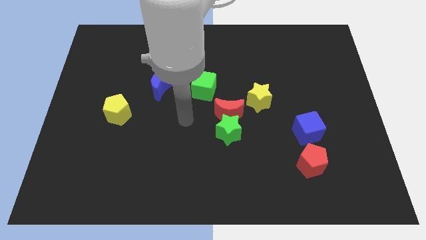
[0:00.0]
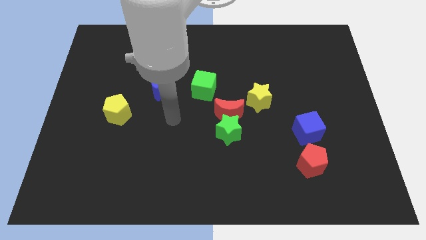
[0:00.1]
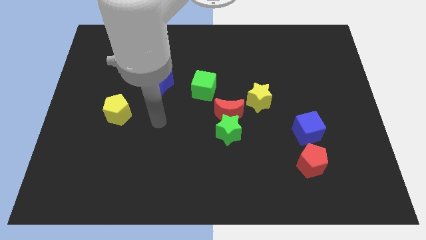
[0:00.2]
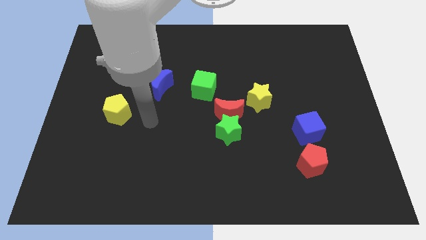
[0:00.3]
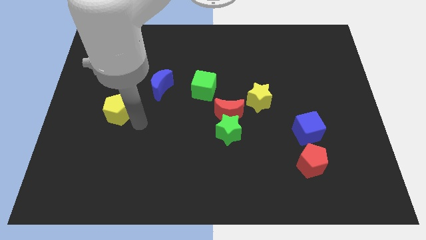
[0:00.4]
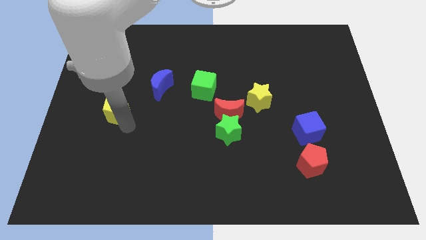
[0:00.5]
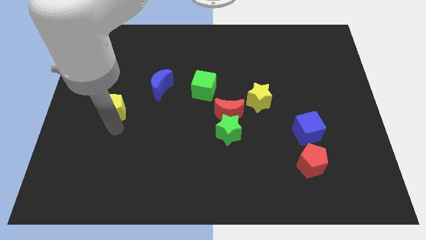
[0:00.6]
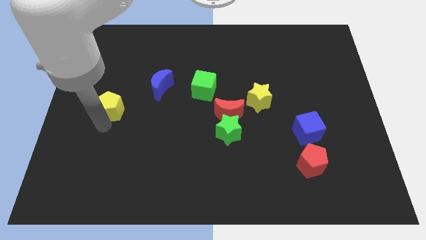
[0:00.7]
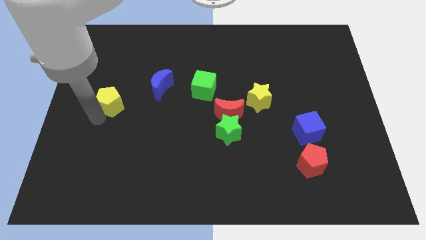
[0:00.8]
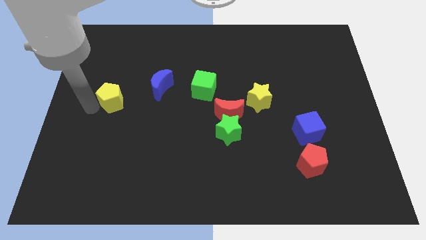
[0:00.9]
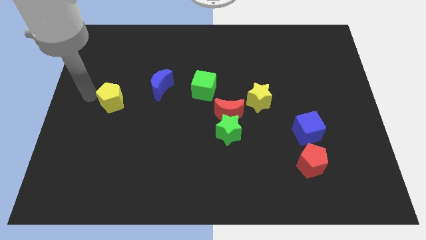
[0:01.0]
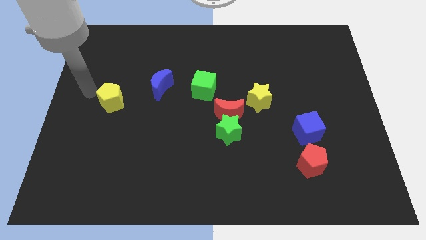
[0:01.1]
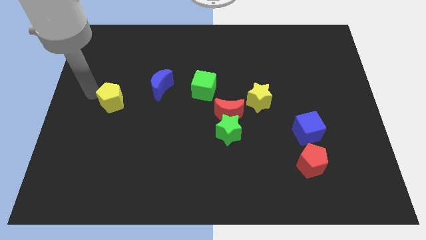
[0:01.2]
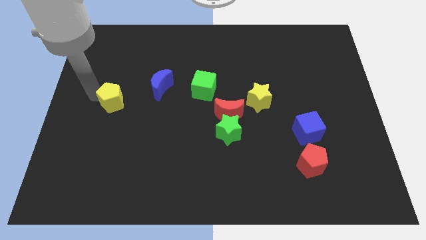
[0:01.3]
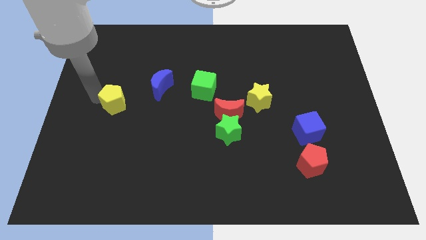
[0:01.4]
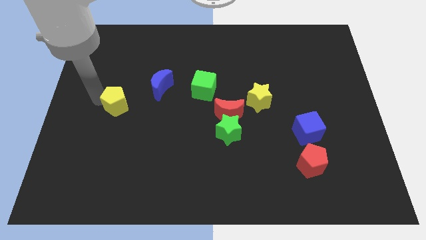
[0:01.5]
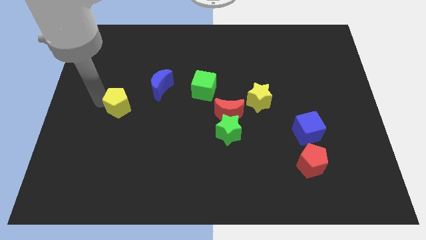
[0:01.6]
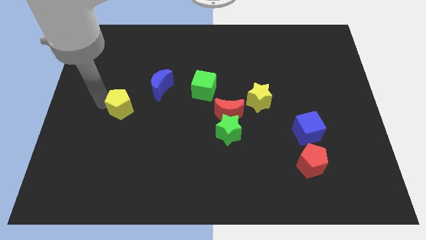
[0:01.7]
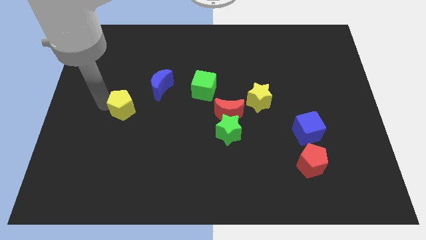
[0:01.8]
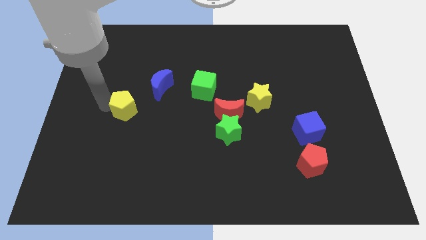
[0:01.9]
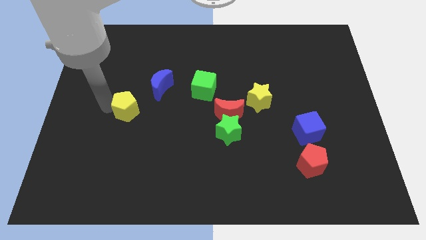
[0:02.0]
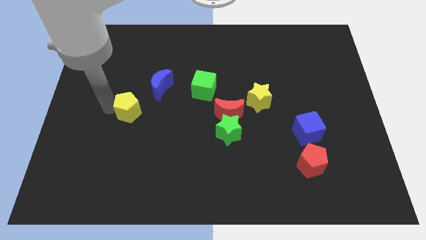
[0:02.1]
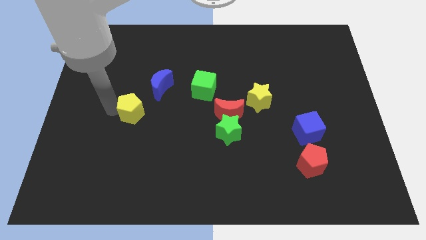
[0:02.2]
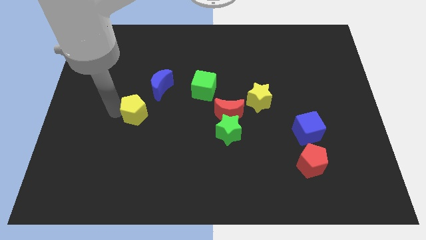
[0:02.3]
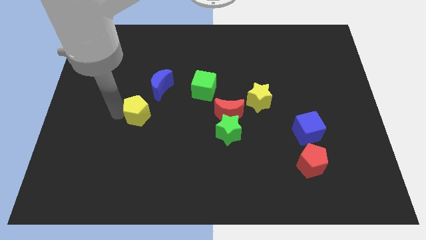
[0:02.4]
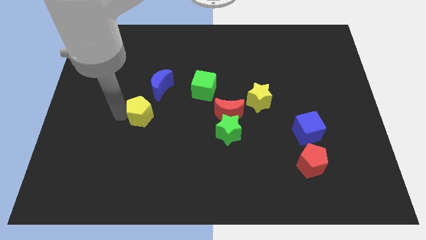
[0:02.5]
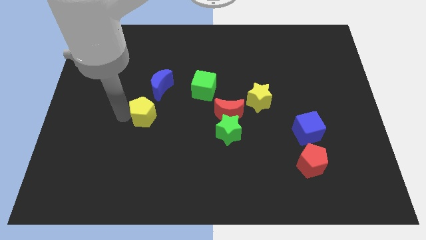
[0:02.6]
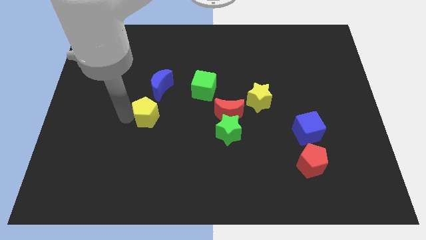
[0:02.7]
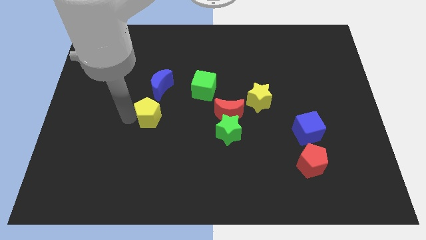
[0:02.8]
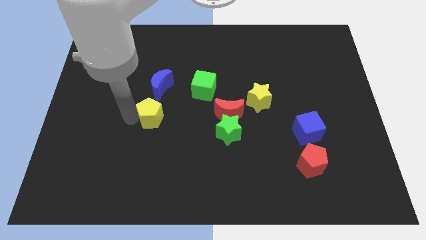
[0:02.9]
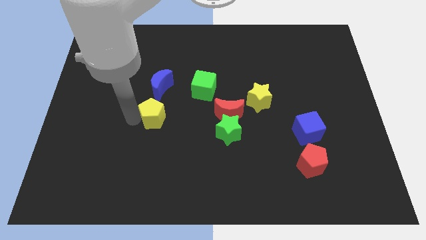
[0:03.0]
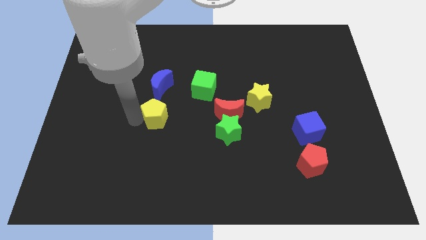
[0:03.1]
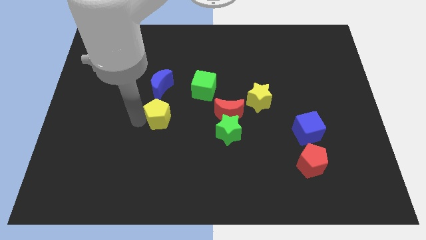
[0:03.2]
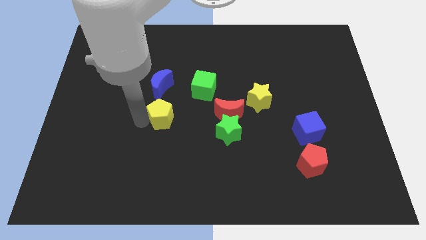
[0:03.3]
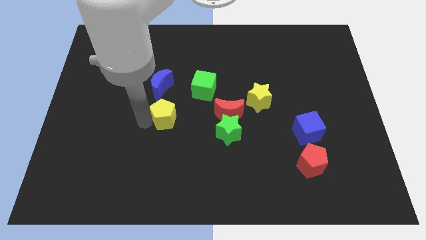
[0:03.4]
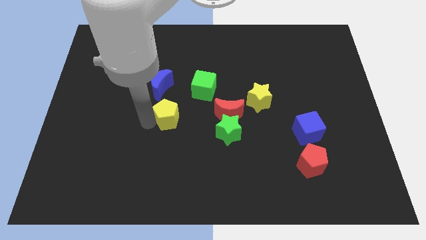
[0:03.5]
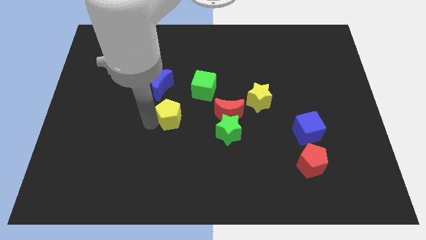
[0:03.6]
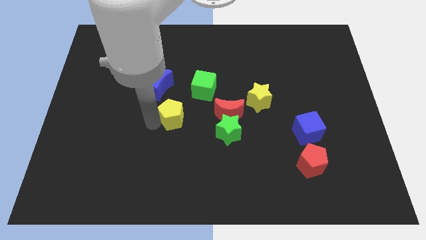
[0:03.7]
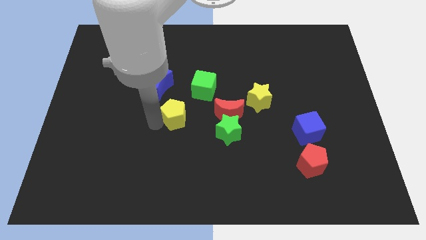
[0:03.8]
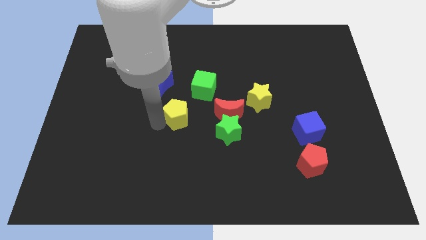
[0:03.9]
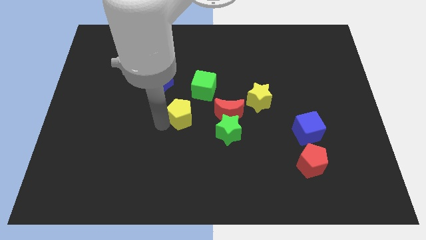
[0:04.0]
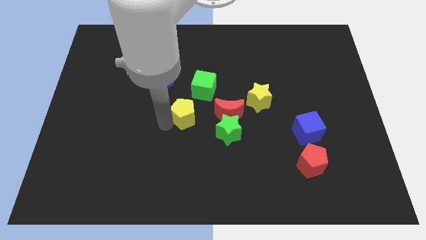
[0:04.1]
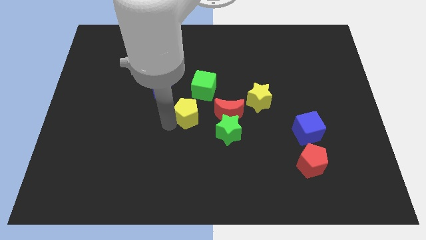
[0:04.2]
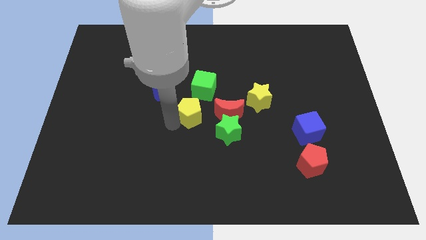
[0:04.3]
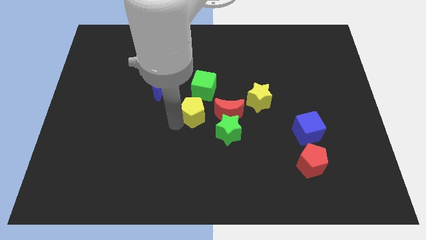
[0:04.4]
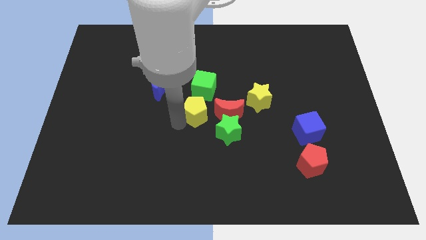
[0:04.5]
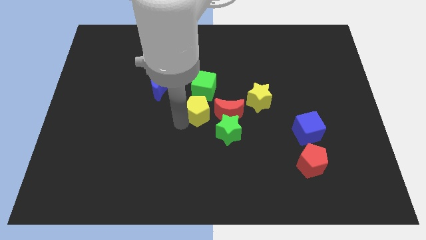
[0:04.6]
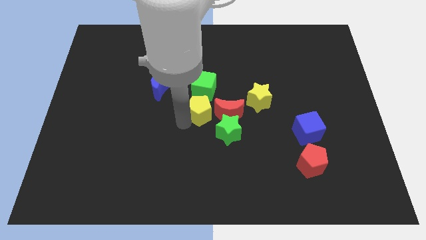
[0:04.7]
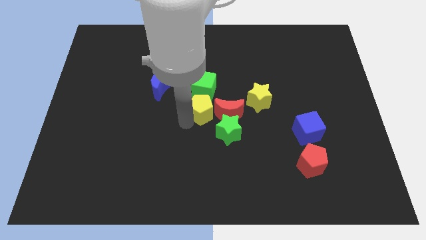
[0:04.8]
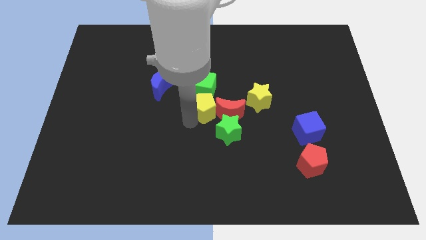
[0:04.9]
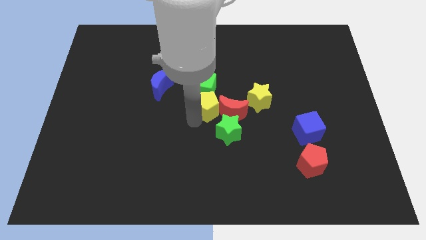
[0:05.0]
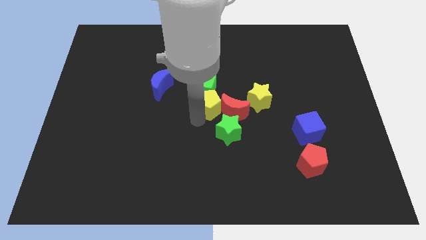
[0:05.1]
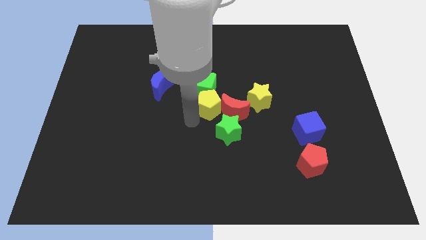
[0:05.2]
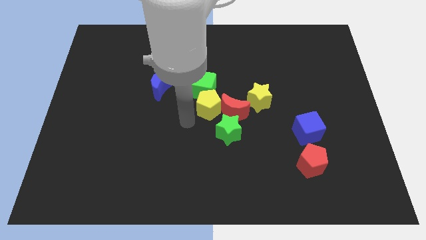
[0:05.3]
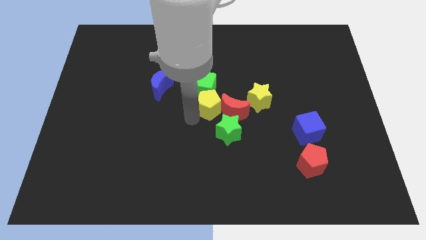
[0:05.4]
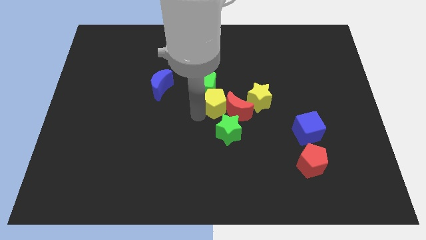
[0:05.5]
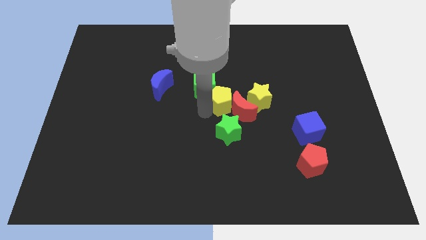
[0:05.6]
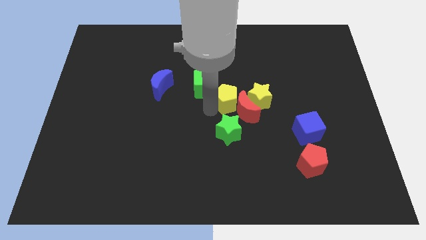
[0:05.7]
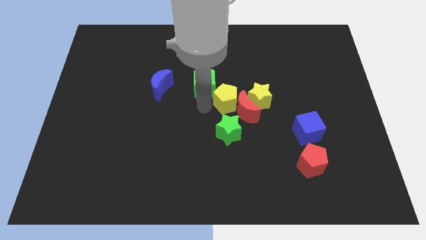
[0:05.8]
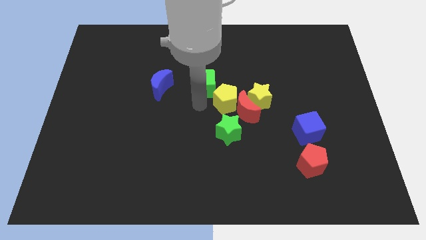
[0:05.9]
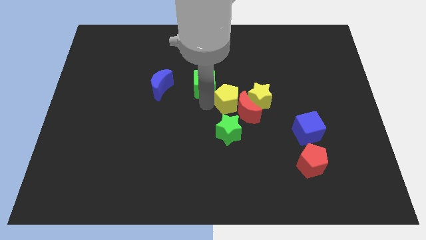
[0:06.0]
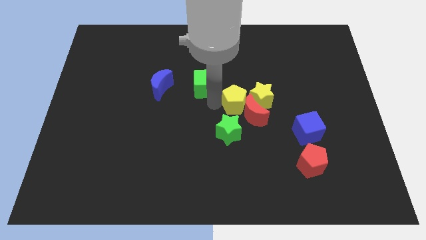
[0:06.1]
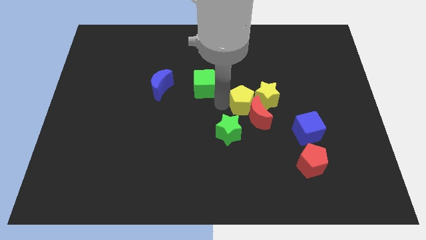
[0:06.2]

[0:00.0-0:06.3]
put the yellow pentagon to the yellow star

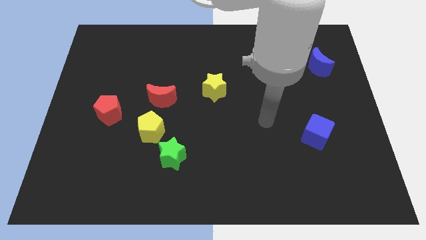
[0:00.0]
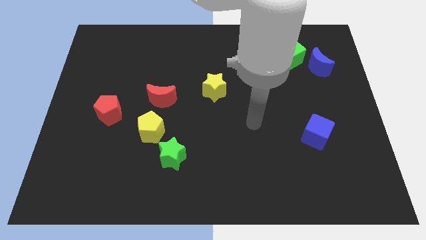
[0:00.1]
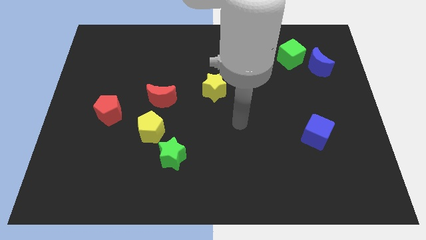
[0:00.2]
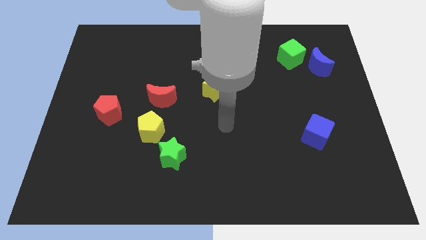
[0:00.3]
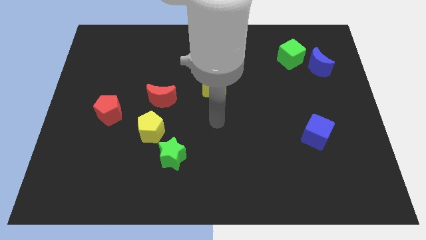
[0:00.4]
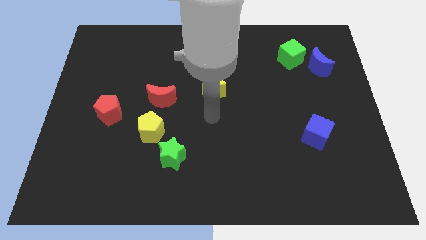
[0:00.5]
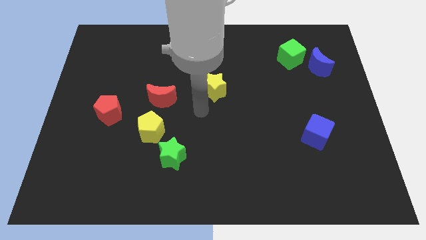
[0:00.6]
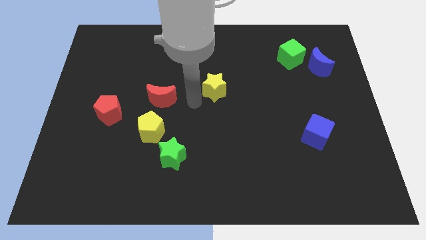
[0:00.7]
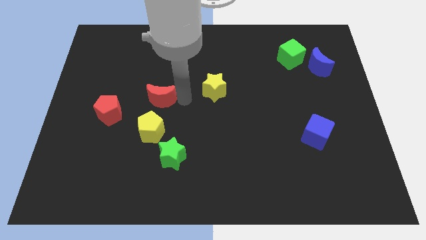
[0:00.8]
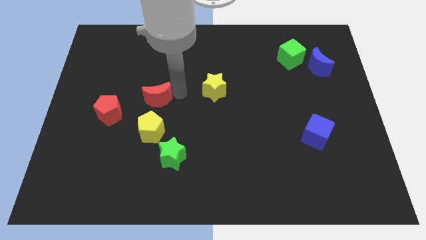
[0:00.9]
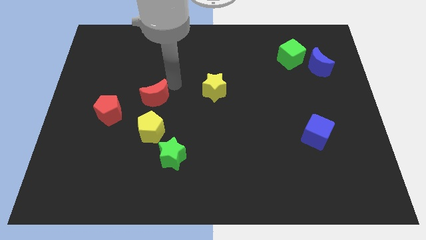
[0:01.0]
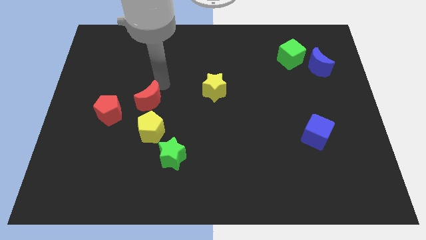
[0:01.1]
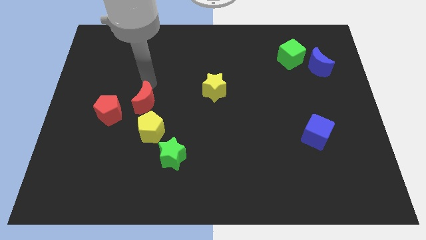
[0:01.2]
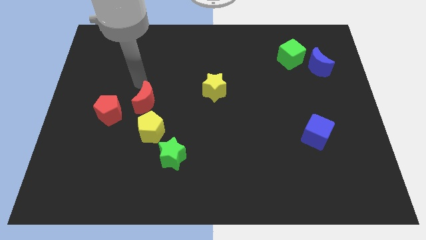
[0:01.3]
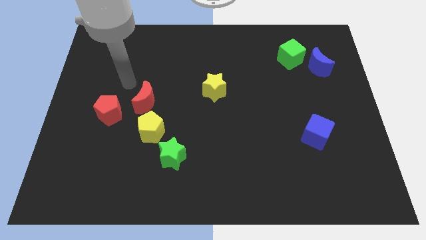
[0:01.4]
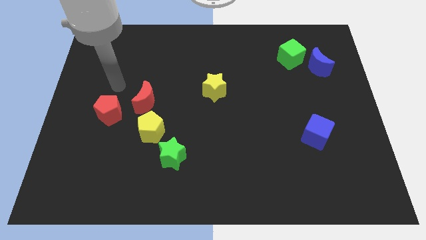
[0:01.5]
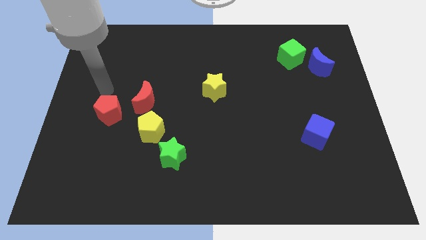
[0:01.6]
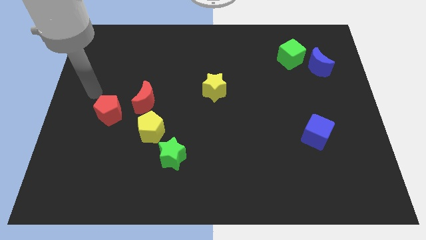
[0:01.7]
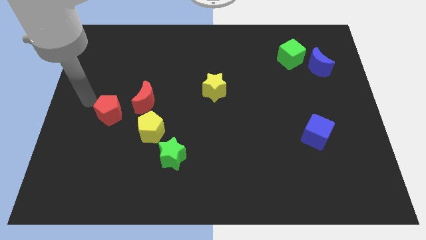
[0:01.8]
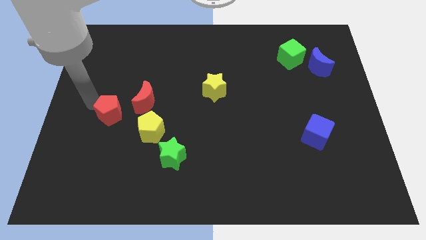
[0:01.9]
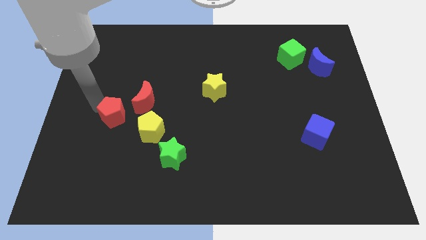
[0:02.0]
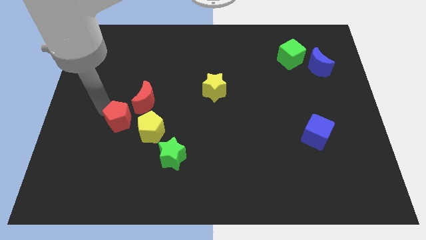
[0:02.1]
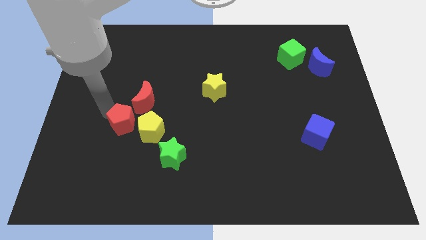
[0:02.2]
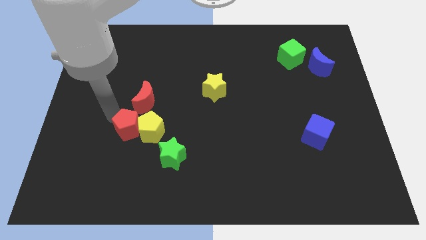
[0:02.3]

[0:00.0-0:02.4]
push the red pentagon next to the yellow pentagon
